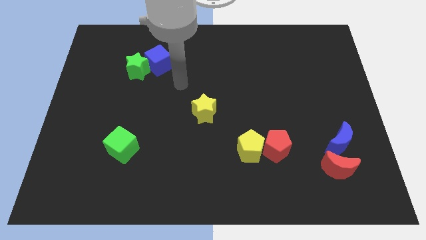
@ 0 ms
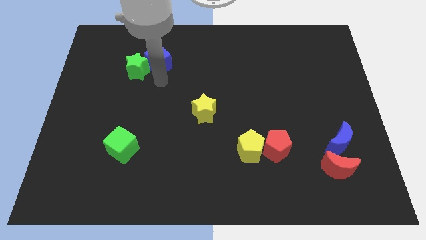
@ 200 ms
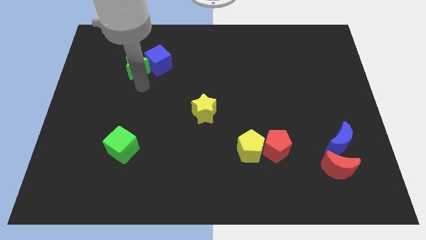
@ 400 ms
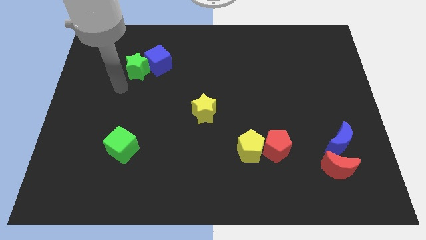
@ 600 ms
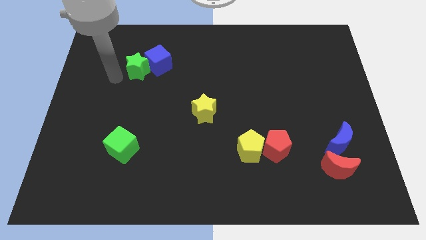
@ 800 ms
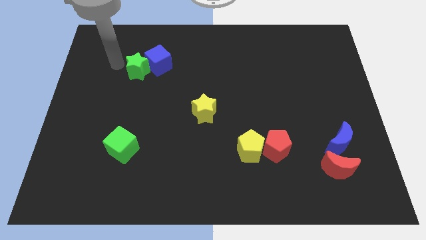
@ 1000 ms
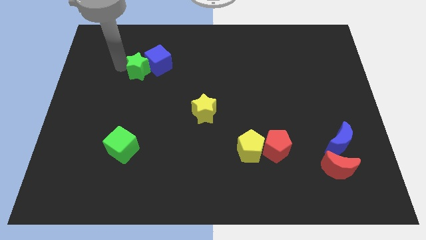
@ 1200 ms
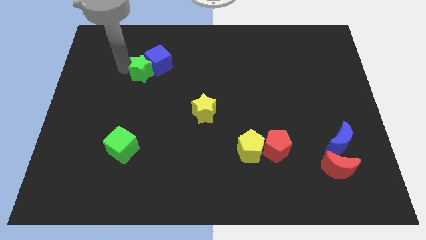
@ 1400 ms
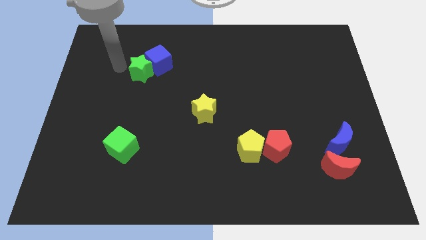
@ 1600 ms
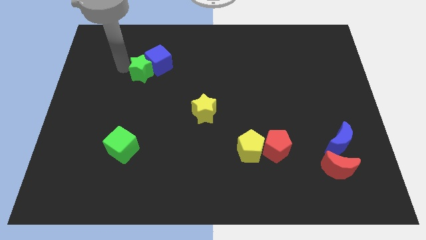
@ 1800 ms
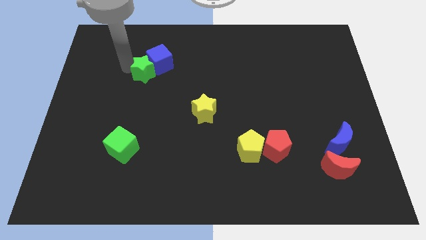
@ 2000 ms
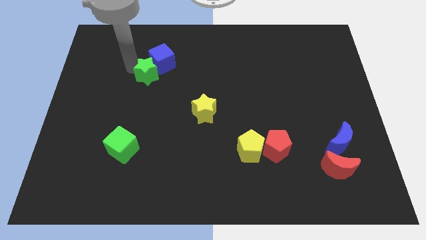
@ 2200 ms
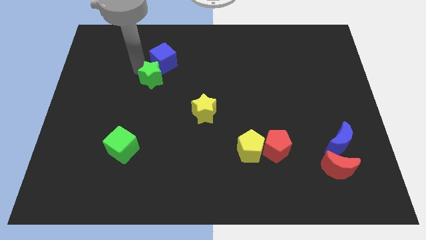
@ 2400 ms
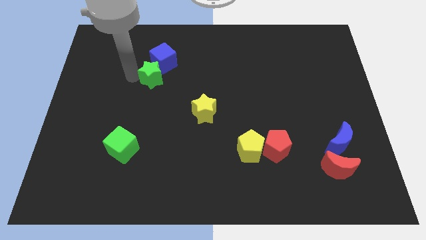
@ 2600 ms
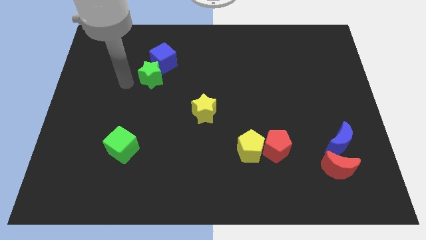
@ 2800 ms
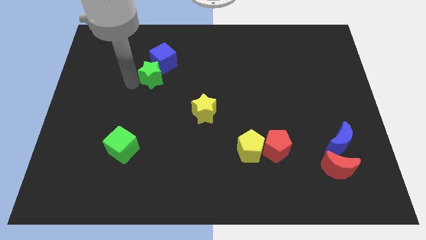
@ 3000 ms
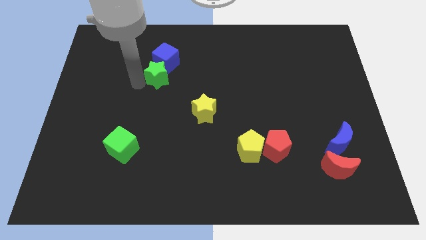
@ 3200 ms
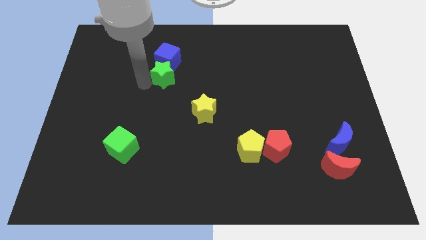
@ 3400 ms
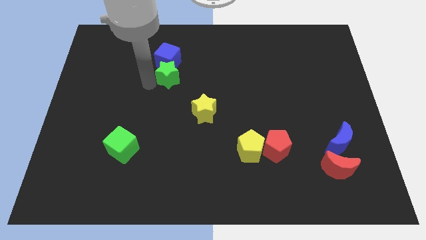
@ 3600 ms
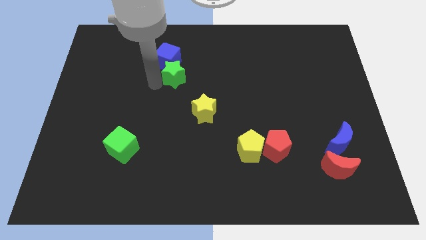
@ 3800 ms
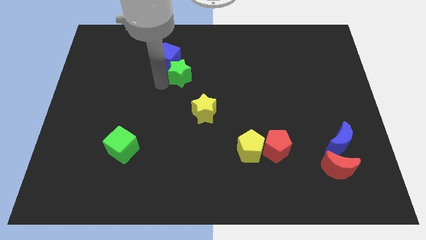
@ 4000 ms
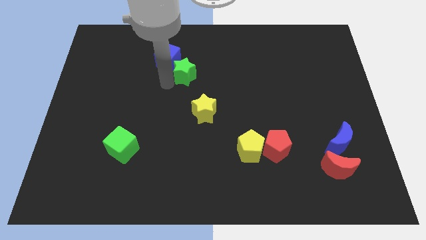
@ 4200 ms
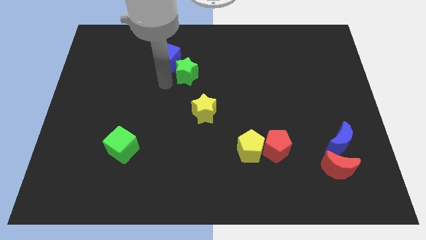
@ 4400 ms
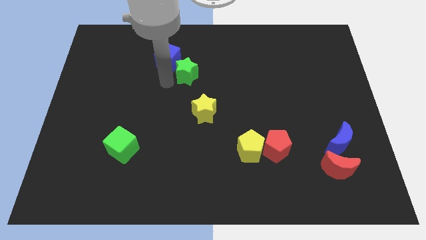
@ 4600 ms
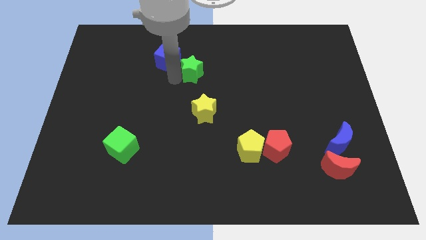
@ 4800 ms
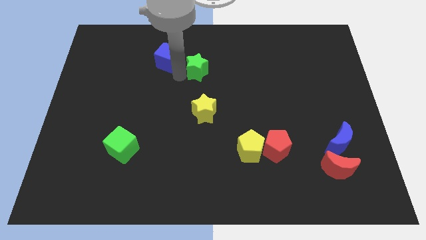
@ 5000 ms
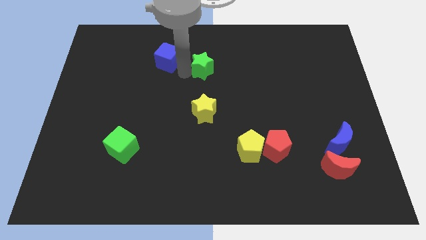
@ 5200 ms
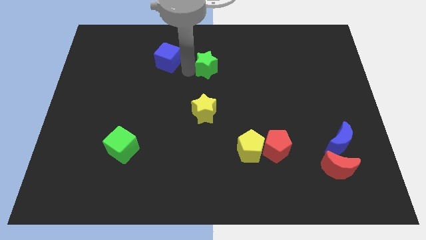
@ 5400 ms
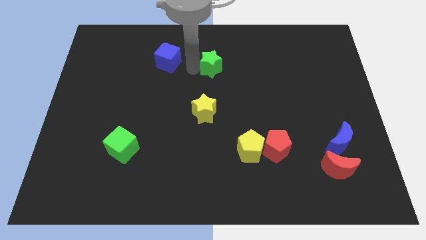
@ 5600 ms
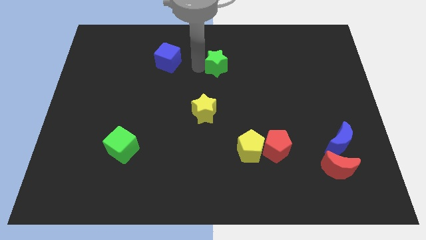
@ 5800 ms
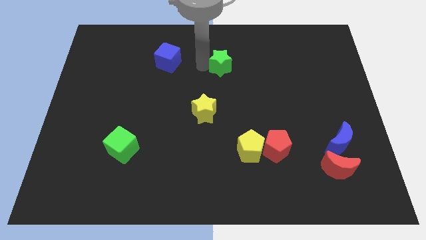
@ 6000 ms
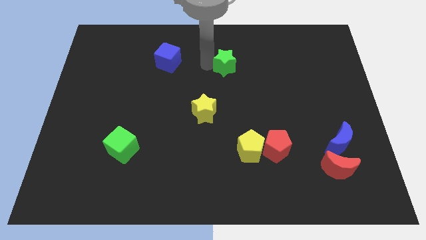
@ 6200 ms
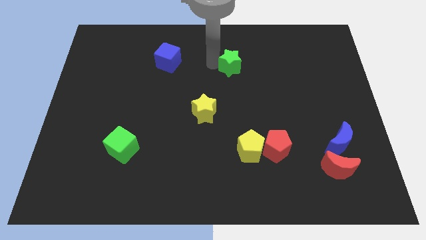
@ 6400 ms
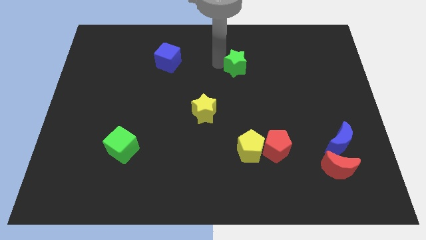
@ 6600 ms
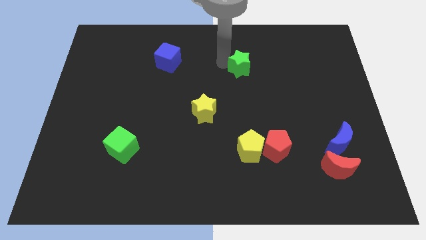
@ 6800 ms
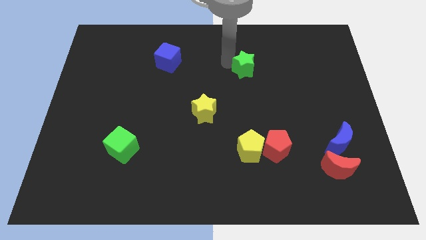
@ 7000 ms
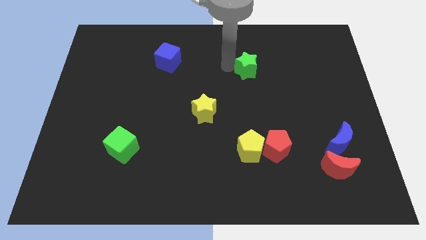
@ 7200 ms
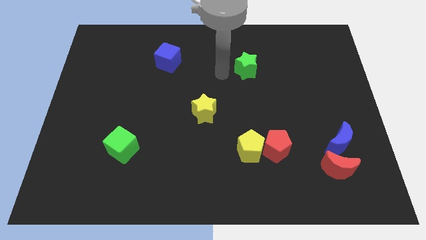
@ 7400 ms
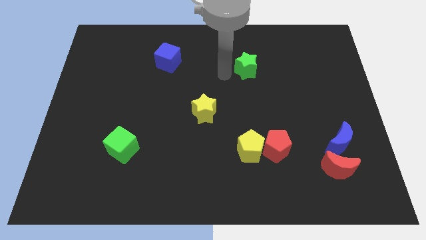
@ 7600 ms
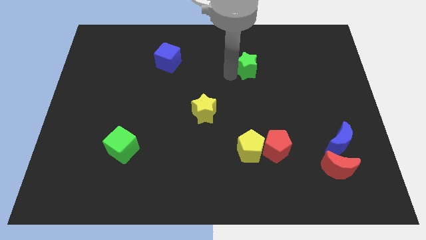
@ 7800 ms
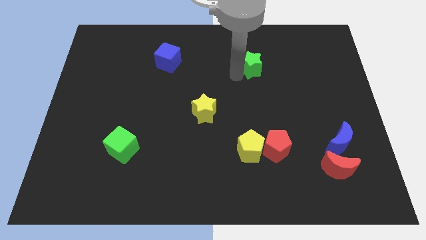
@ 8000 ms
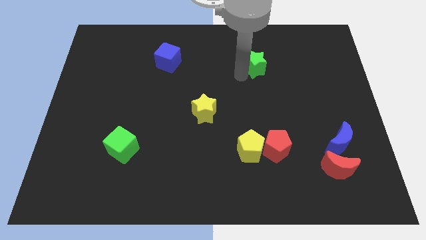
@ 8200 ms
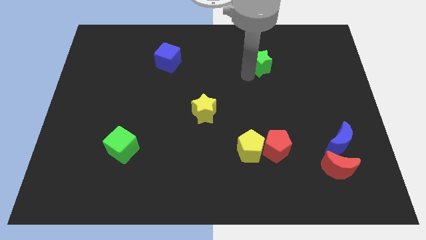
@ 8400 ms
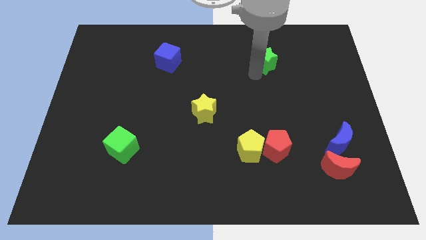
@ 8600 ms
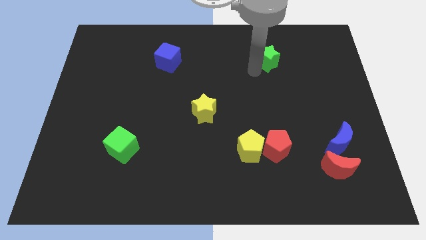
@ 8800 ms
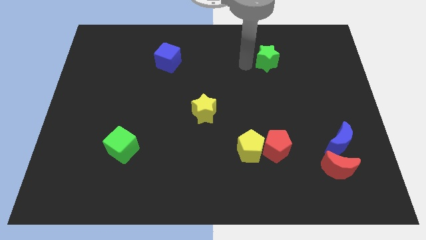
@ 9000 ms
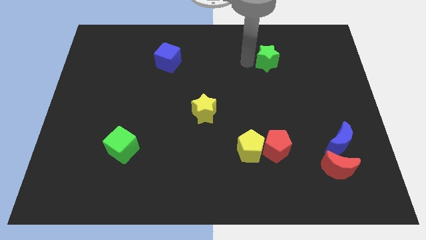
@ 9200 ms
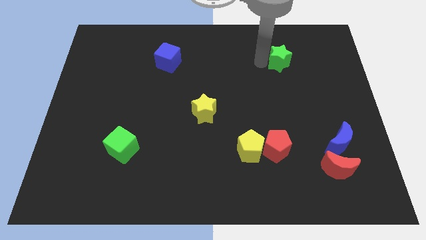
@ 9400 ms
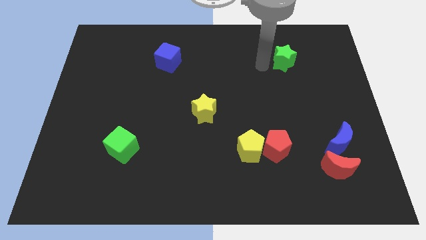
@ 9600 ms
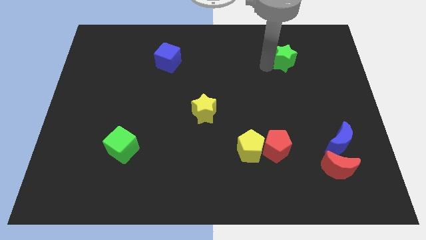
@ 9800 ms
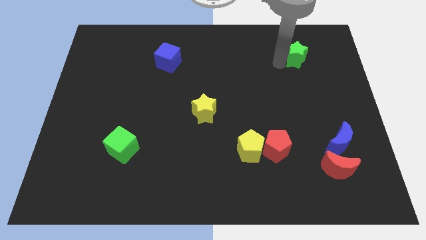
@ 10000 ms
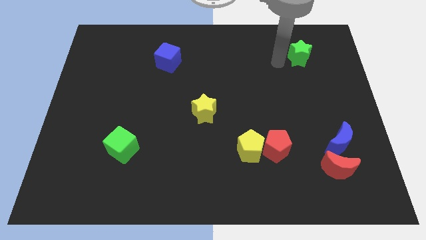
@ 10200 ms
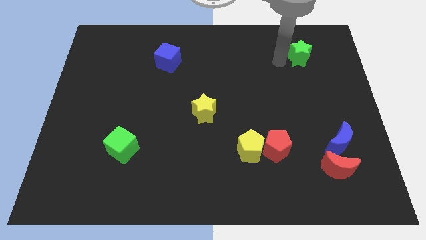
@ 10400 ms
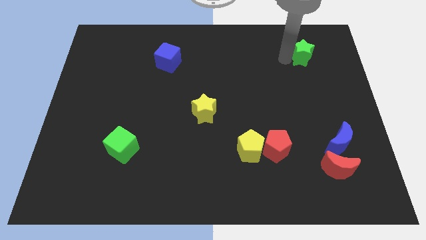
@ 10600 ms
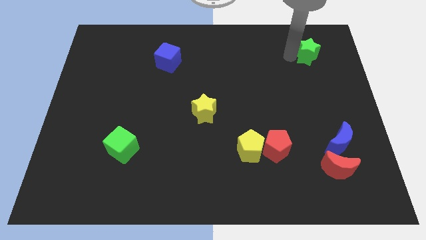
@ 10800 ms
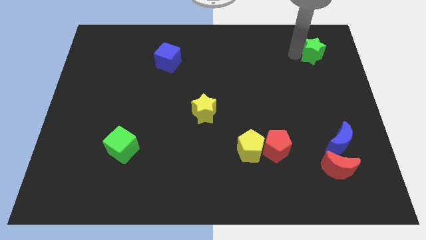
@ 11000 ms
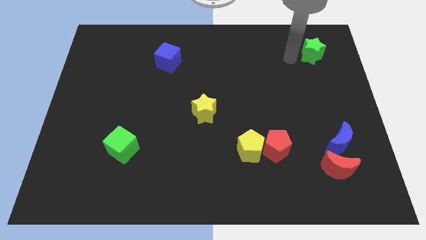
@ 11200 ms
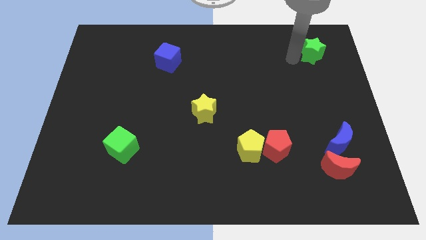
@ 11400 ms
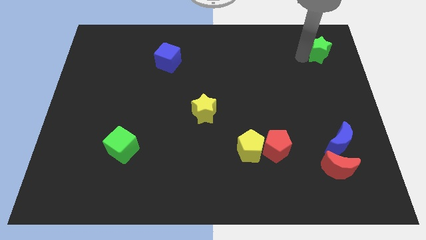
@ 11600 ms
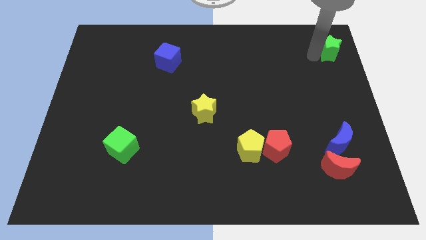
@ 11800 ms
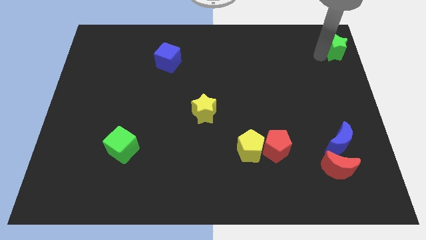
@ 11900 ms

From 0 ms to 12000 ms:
push the green star to the top right

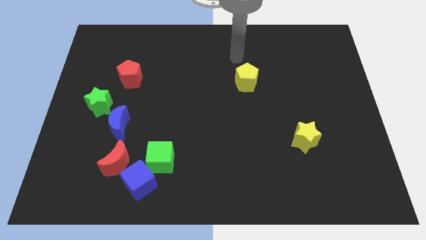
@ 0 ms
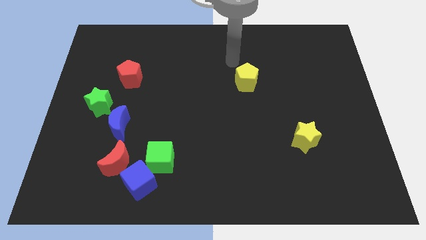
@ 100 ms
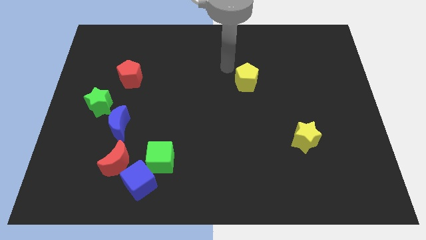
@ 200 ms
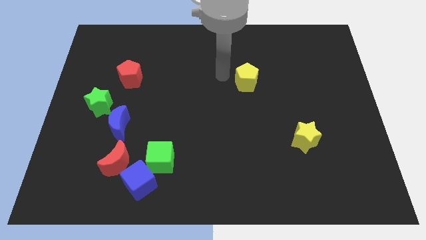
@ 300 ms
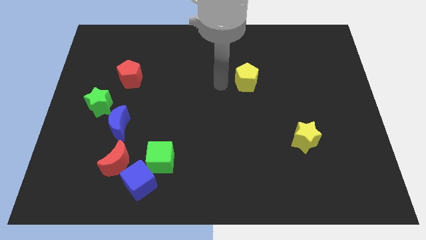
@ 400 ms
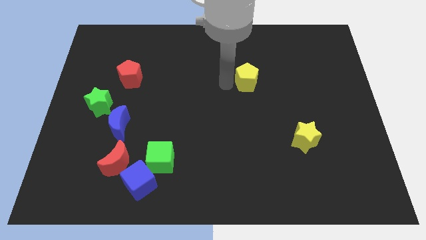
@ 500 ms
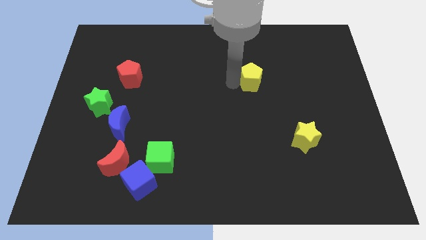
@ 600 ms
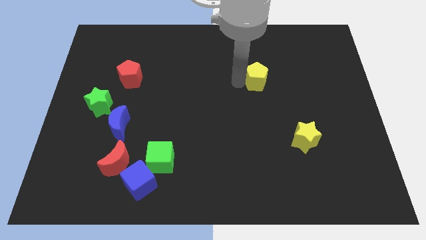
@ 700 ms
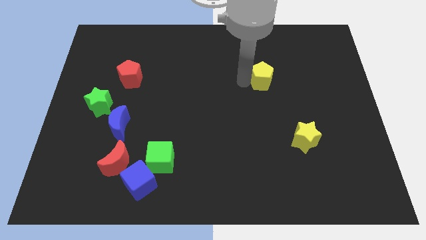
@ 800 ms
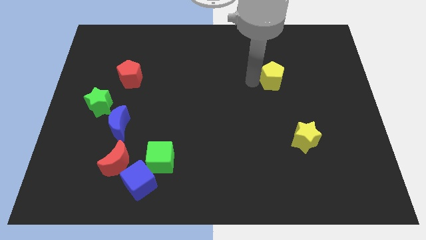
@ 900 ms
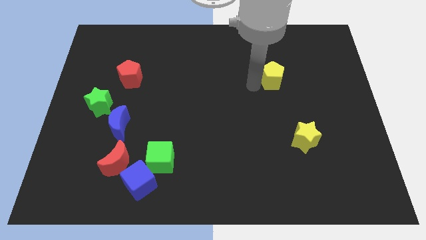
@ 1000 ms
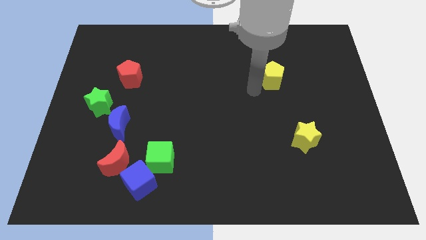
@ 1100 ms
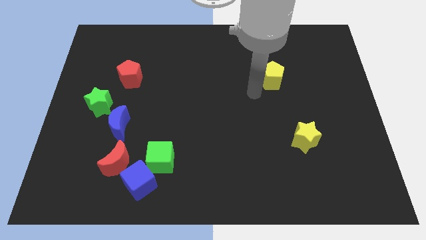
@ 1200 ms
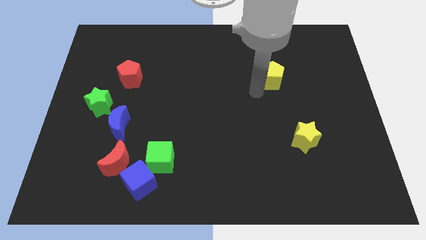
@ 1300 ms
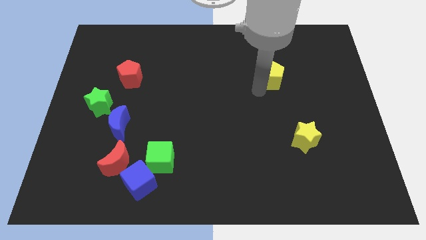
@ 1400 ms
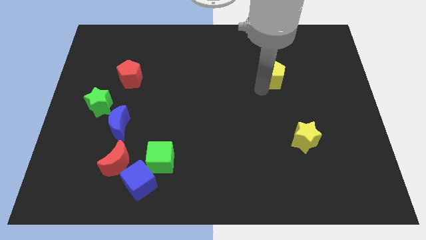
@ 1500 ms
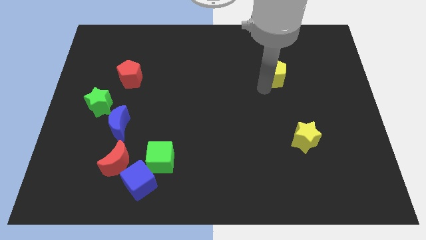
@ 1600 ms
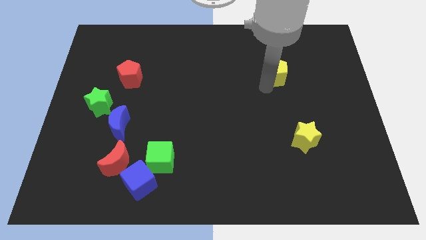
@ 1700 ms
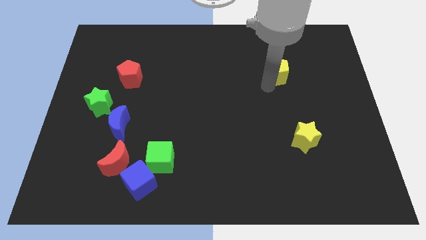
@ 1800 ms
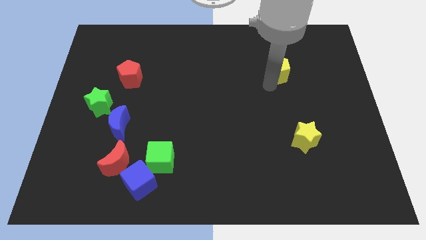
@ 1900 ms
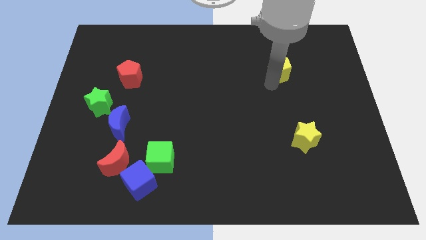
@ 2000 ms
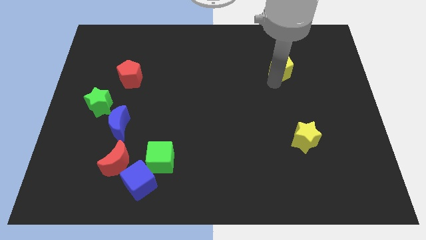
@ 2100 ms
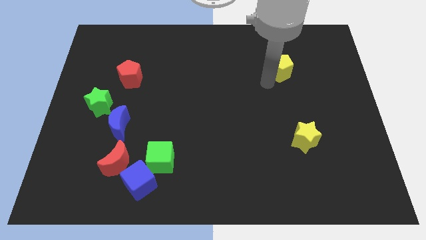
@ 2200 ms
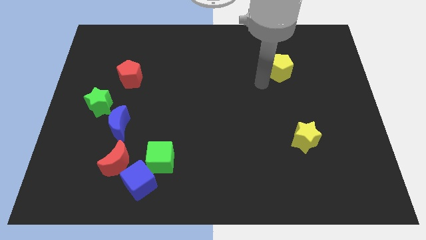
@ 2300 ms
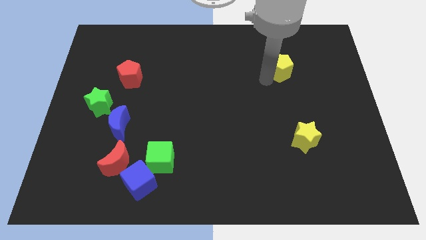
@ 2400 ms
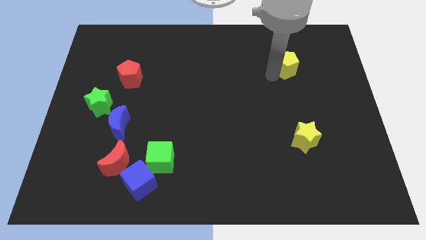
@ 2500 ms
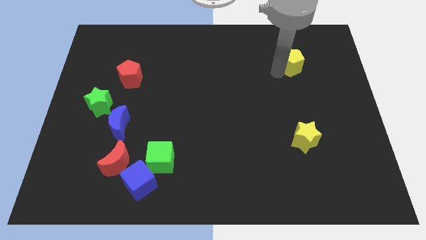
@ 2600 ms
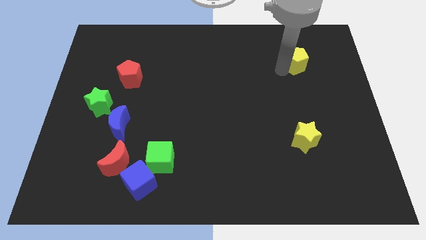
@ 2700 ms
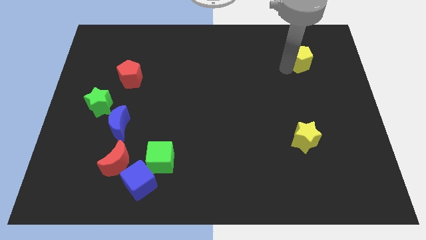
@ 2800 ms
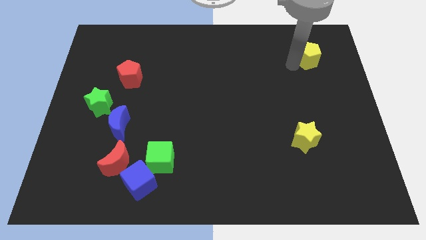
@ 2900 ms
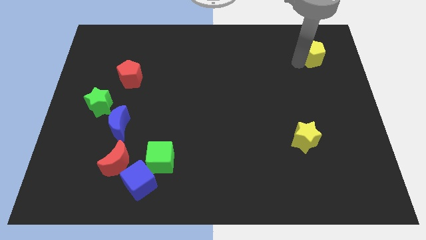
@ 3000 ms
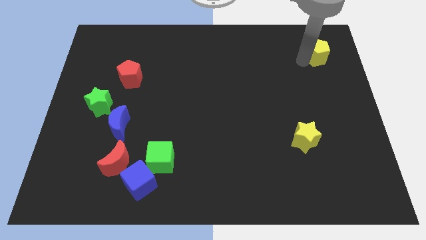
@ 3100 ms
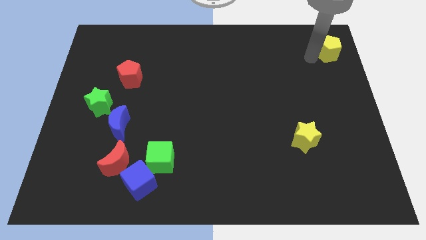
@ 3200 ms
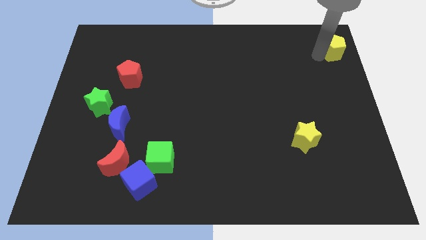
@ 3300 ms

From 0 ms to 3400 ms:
move the yellow pentagon to the upper right corner
